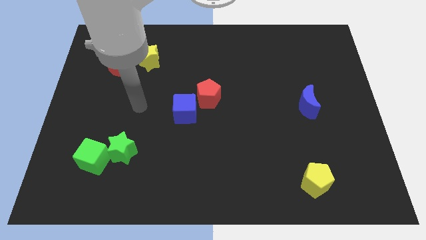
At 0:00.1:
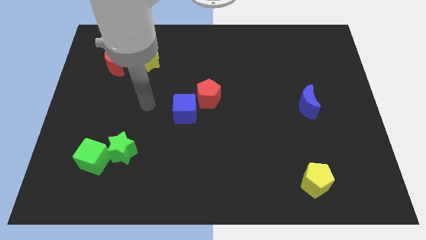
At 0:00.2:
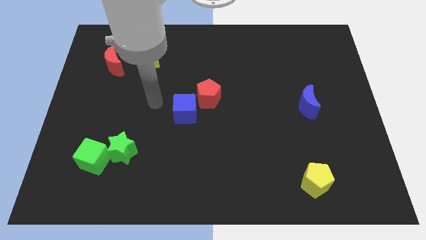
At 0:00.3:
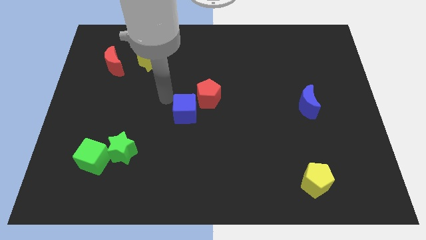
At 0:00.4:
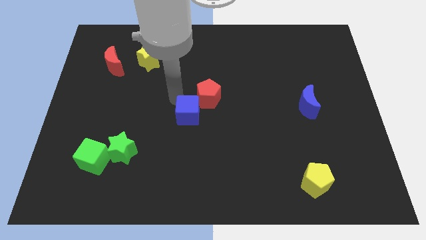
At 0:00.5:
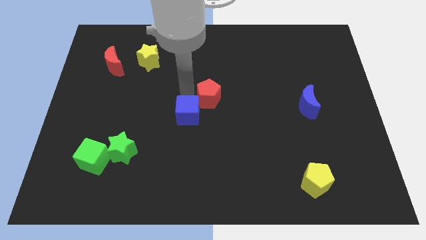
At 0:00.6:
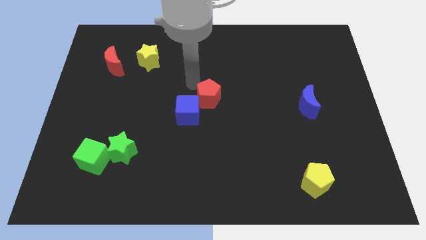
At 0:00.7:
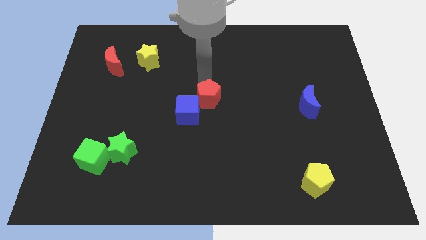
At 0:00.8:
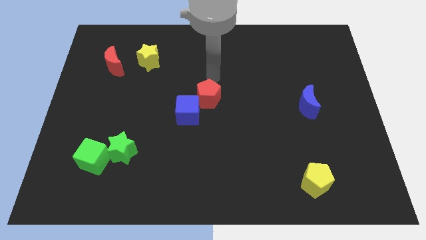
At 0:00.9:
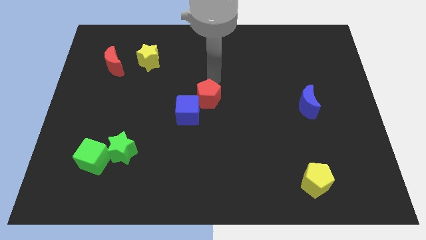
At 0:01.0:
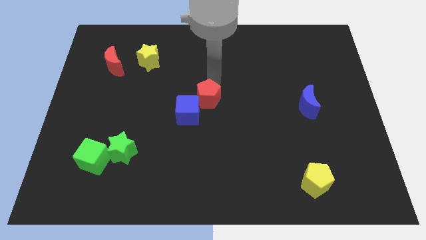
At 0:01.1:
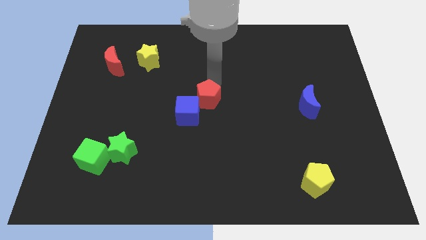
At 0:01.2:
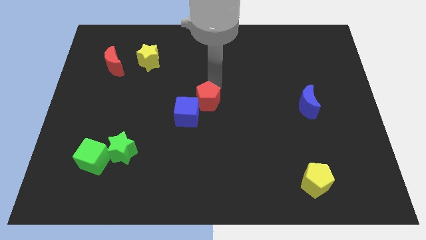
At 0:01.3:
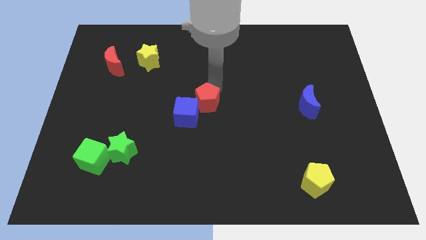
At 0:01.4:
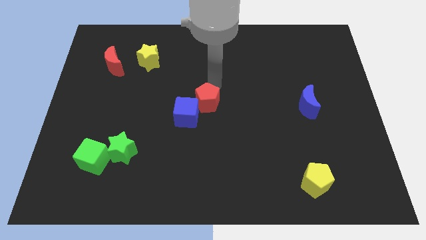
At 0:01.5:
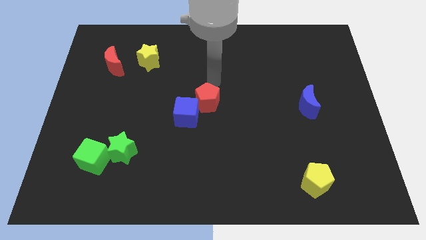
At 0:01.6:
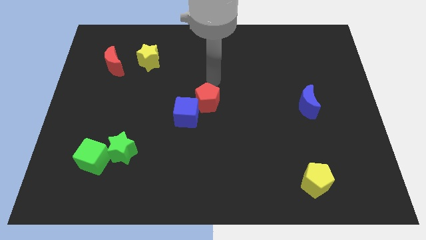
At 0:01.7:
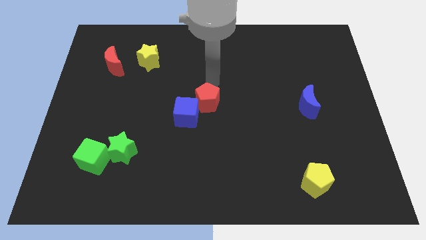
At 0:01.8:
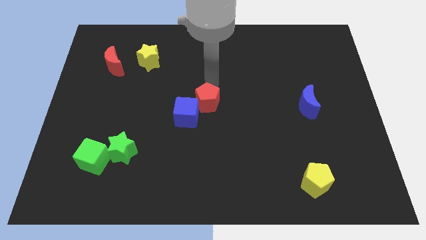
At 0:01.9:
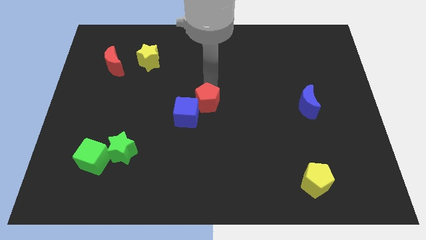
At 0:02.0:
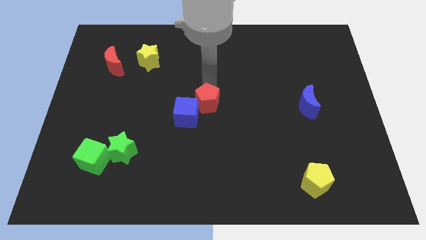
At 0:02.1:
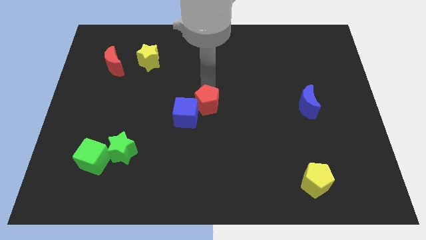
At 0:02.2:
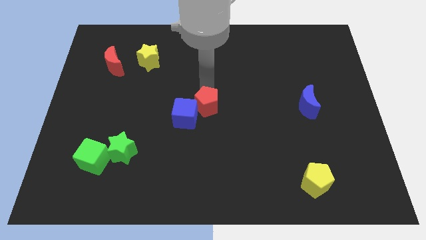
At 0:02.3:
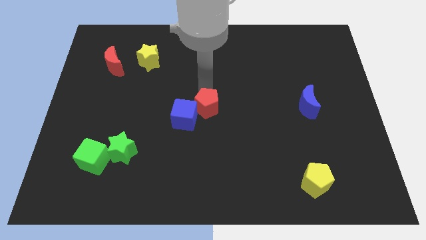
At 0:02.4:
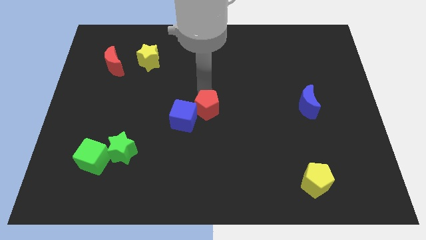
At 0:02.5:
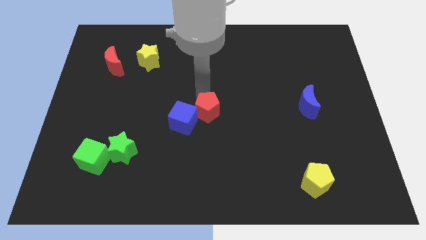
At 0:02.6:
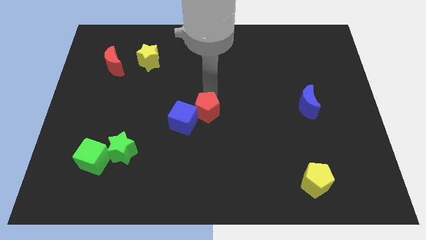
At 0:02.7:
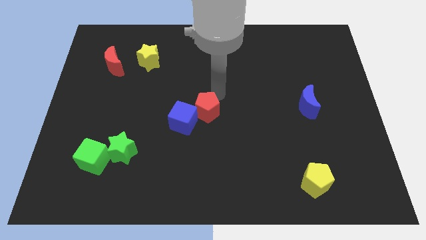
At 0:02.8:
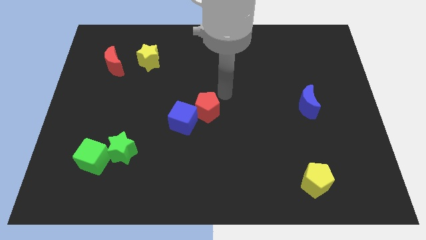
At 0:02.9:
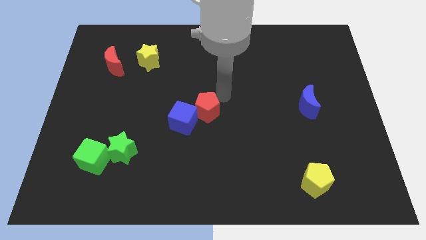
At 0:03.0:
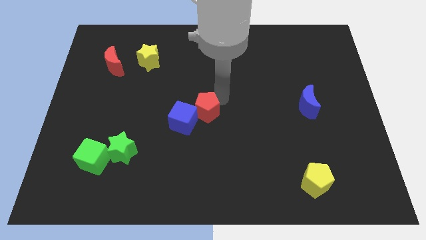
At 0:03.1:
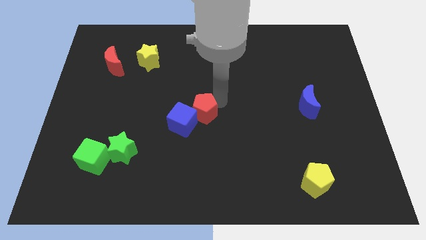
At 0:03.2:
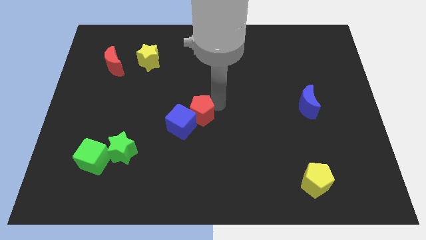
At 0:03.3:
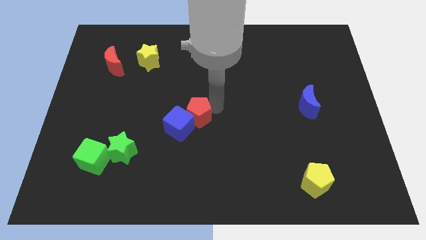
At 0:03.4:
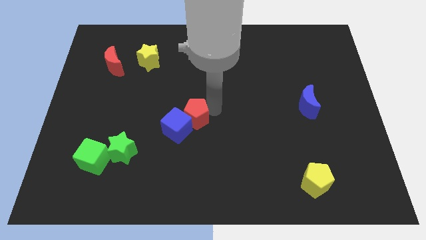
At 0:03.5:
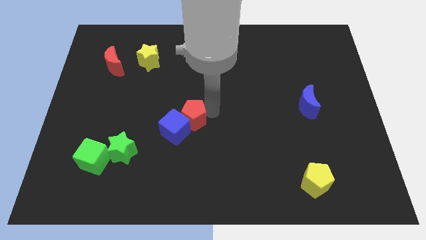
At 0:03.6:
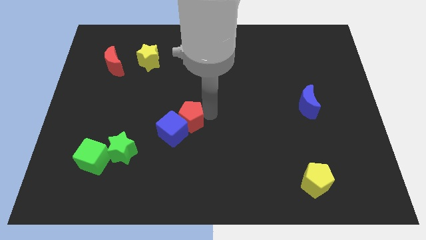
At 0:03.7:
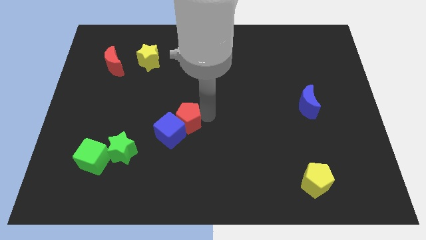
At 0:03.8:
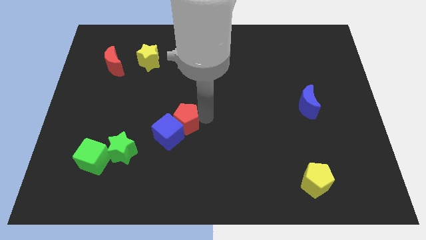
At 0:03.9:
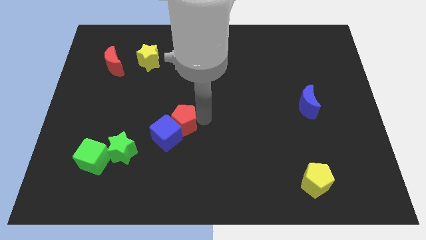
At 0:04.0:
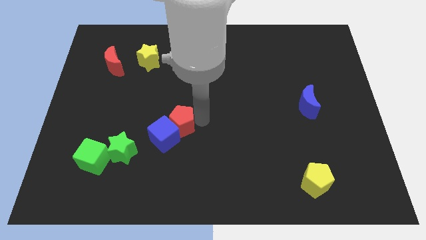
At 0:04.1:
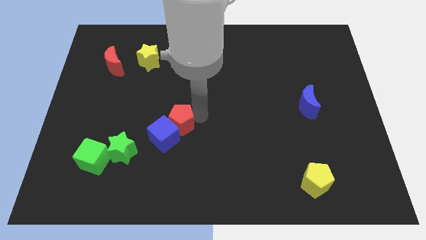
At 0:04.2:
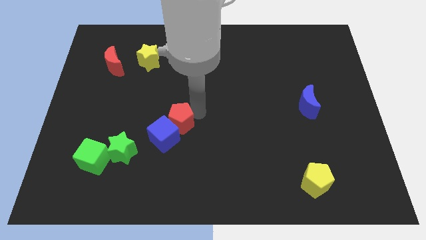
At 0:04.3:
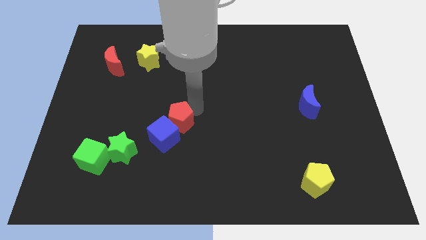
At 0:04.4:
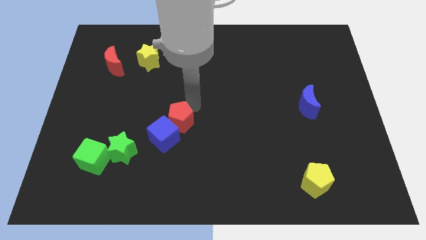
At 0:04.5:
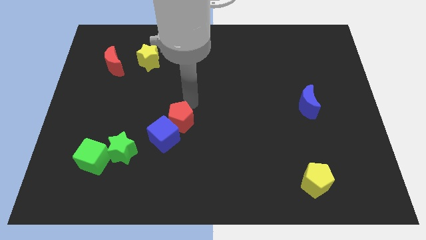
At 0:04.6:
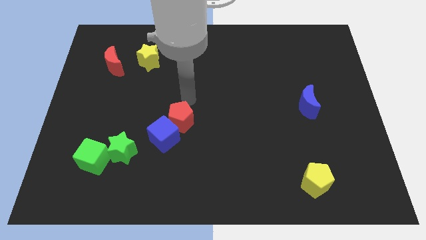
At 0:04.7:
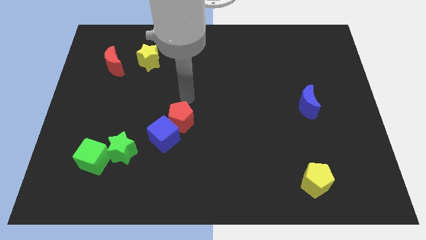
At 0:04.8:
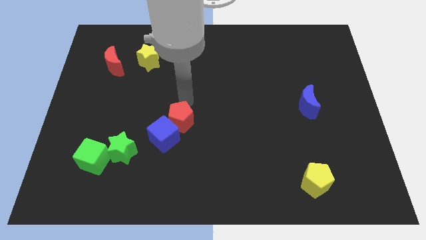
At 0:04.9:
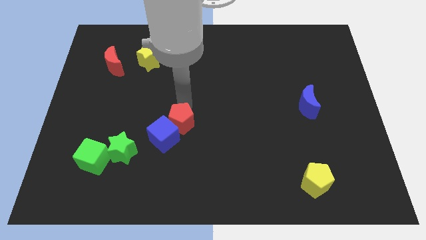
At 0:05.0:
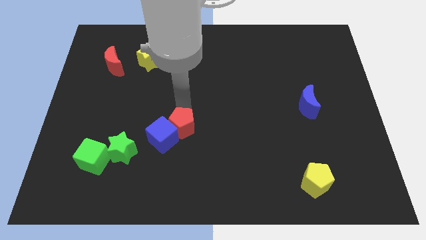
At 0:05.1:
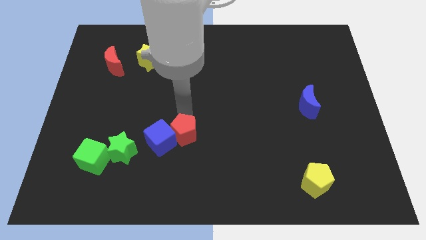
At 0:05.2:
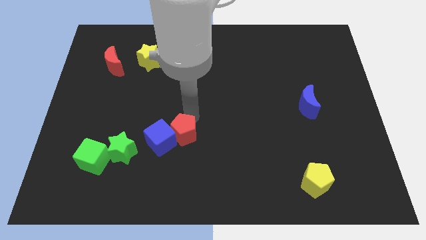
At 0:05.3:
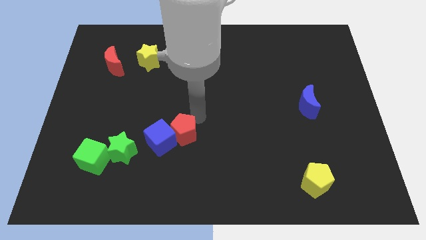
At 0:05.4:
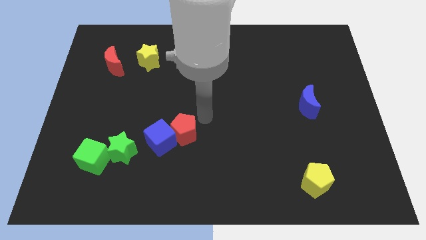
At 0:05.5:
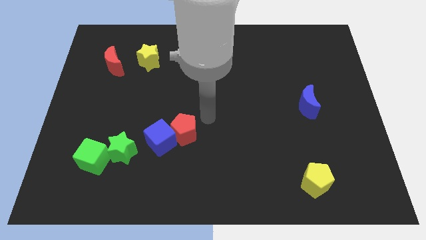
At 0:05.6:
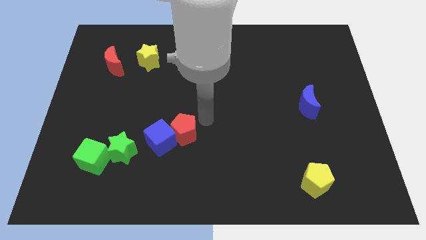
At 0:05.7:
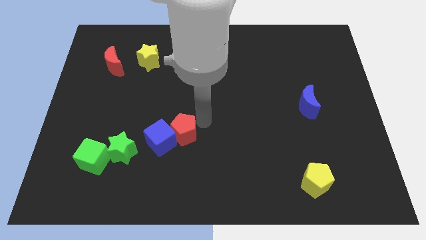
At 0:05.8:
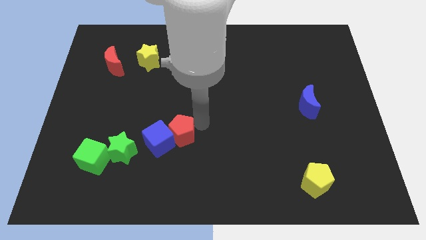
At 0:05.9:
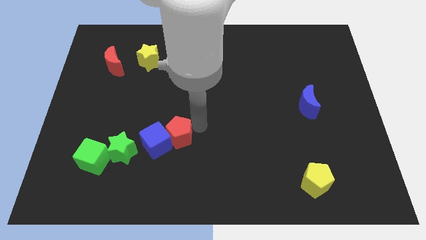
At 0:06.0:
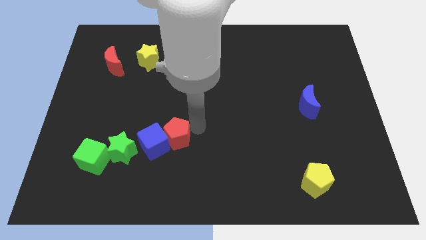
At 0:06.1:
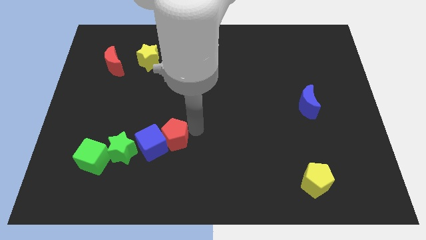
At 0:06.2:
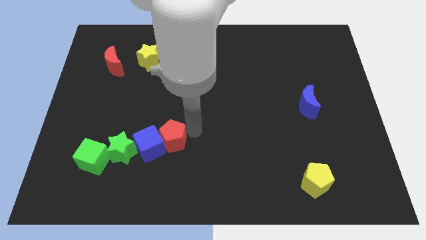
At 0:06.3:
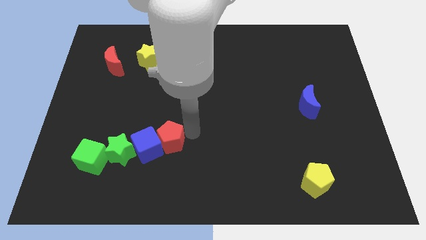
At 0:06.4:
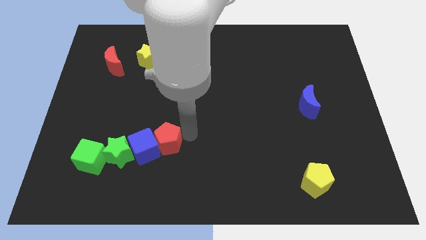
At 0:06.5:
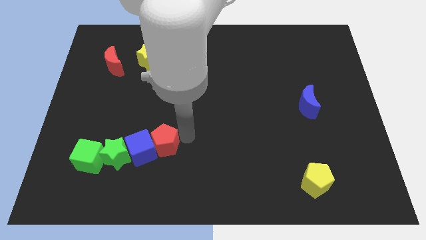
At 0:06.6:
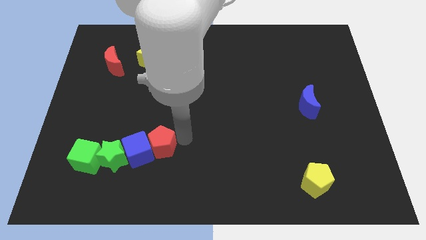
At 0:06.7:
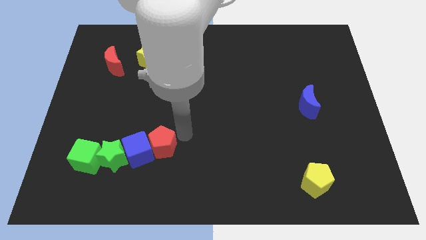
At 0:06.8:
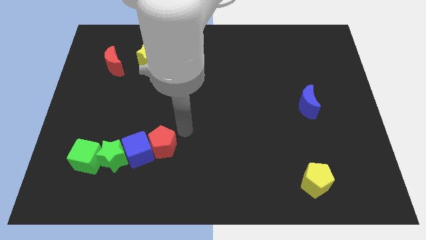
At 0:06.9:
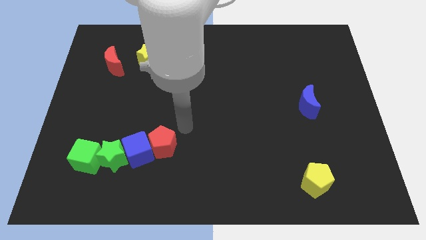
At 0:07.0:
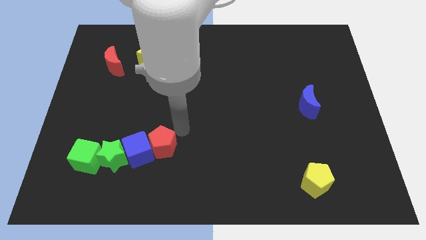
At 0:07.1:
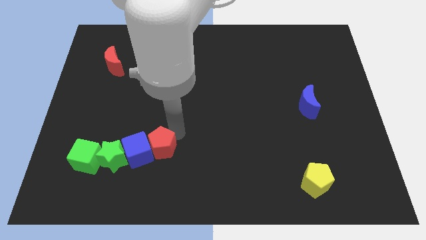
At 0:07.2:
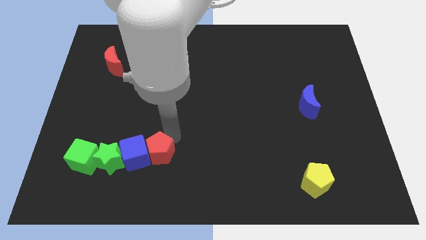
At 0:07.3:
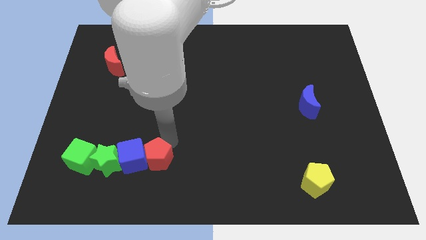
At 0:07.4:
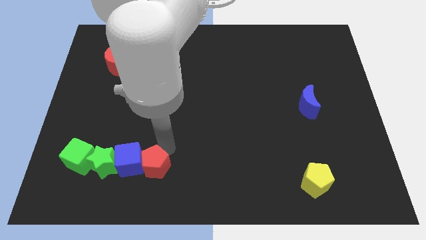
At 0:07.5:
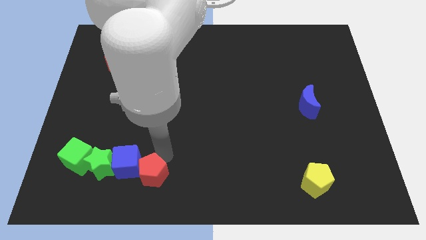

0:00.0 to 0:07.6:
slide the red pentagon diagonally down and left

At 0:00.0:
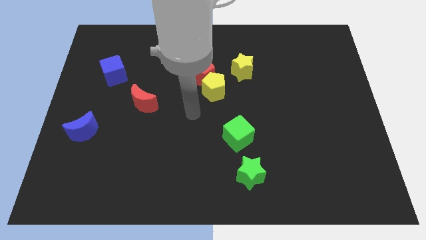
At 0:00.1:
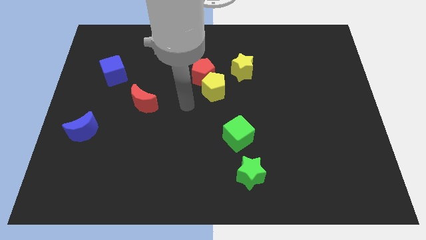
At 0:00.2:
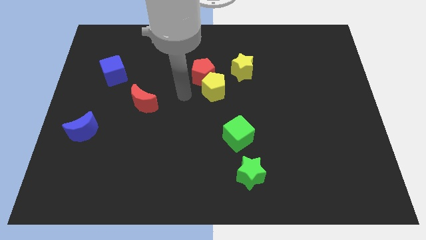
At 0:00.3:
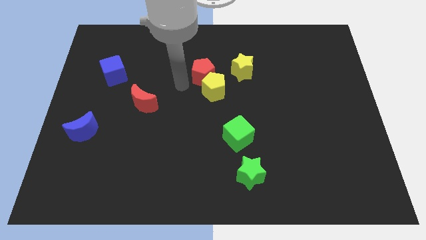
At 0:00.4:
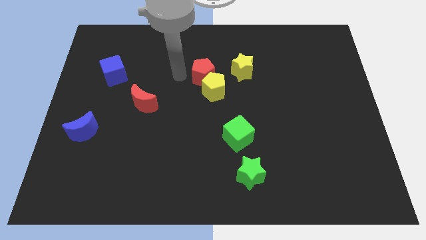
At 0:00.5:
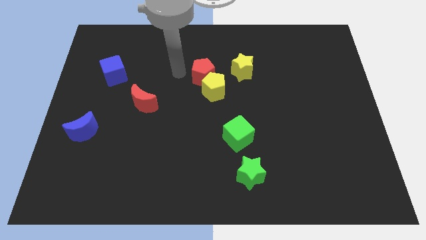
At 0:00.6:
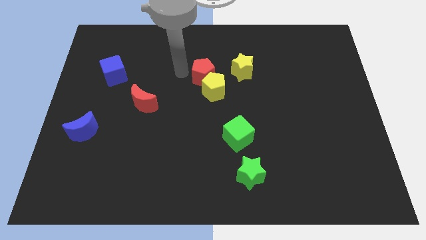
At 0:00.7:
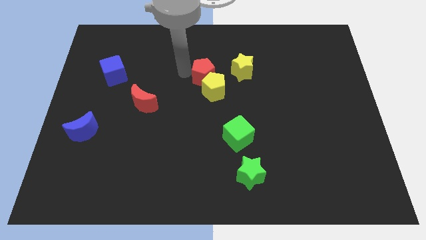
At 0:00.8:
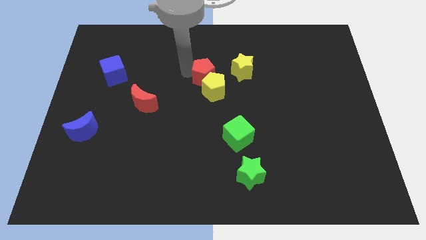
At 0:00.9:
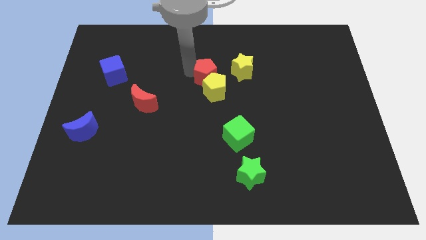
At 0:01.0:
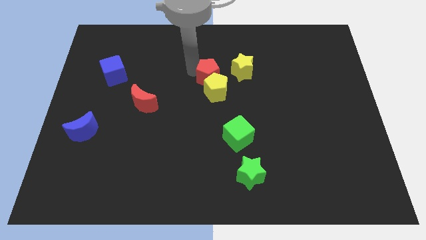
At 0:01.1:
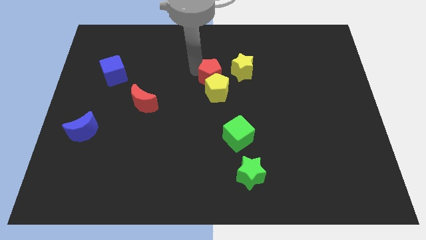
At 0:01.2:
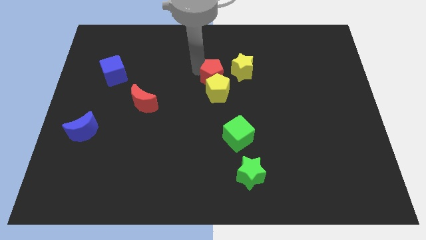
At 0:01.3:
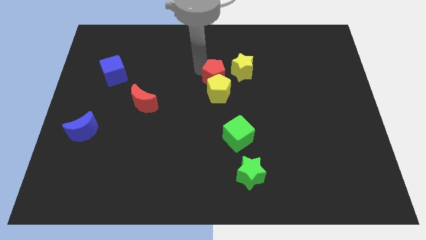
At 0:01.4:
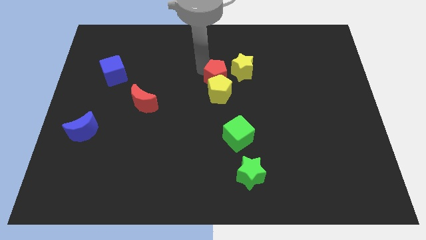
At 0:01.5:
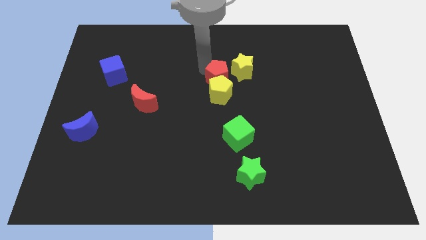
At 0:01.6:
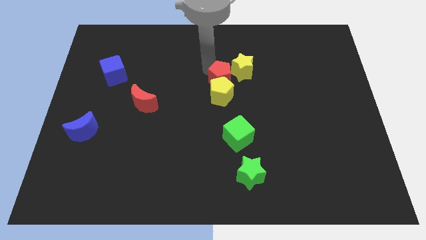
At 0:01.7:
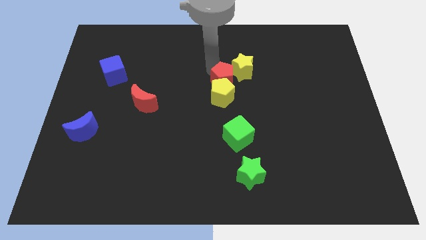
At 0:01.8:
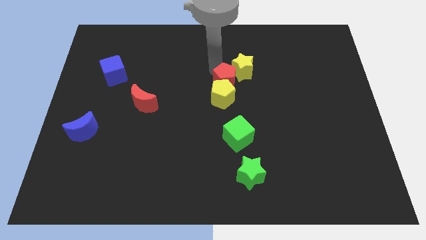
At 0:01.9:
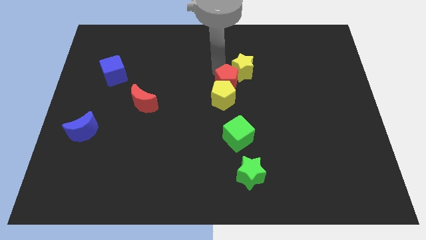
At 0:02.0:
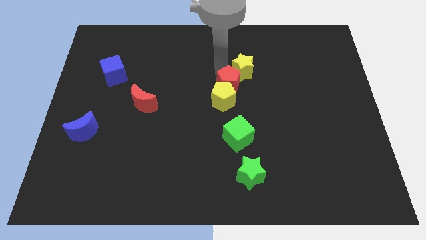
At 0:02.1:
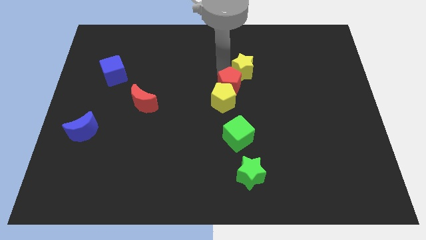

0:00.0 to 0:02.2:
move the red pentagon a little bit diagonally down and right
